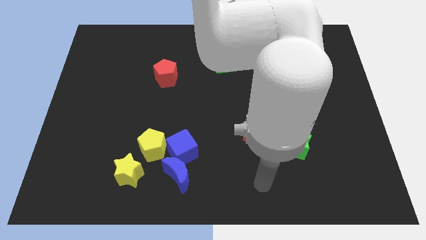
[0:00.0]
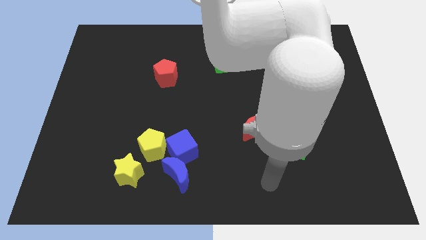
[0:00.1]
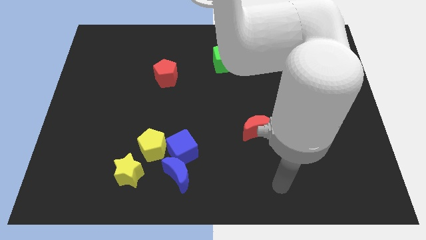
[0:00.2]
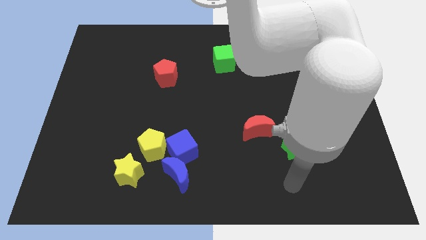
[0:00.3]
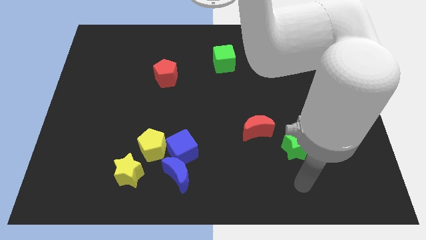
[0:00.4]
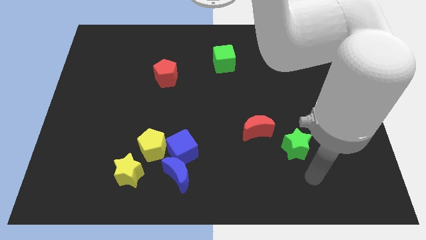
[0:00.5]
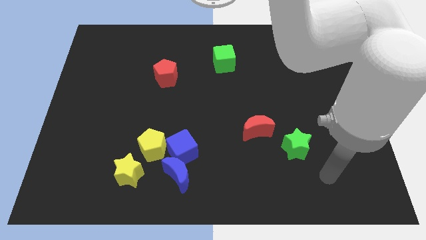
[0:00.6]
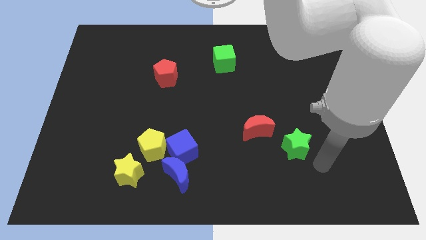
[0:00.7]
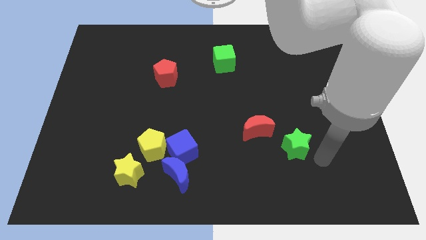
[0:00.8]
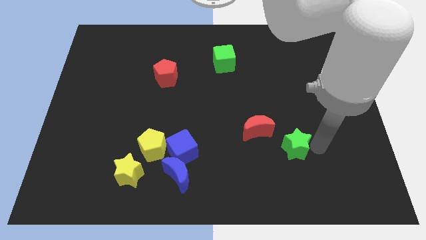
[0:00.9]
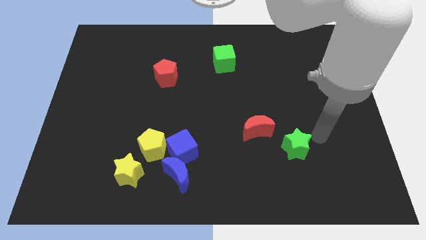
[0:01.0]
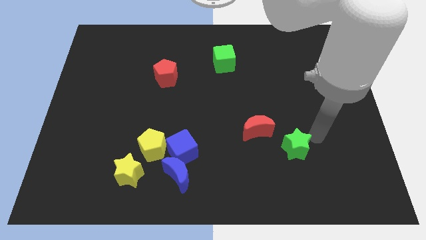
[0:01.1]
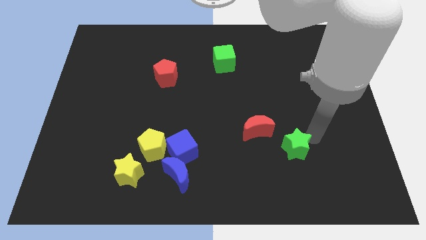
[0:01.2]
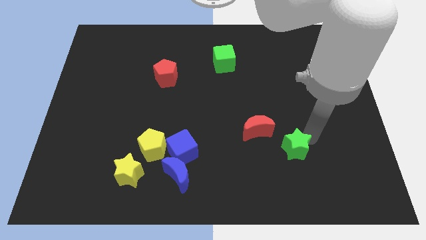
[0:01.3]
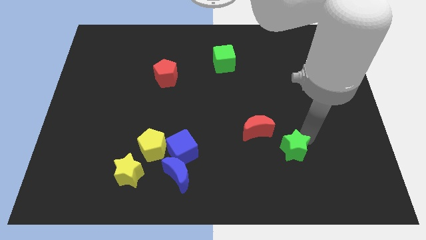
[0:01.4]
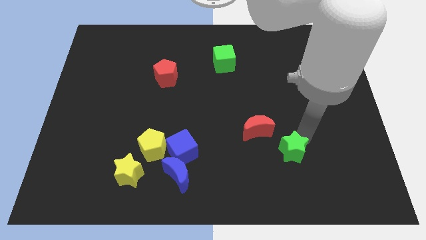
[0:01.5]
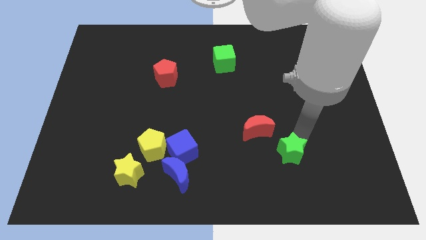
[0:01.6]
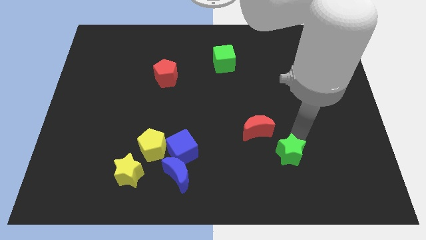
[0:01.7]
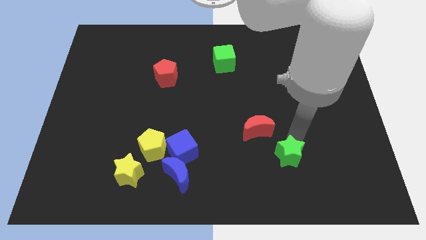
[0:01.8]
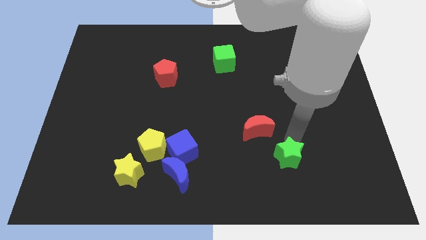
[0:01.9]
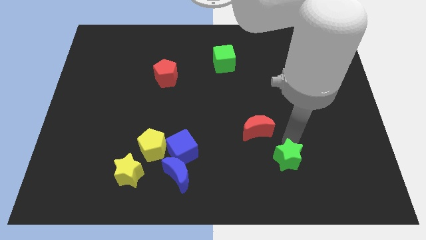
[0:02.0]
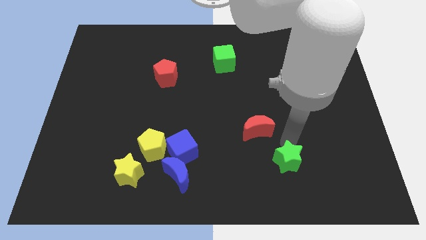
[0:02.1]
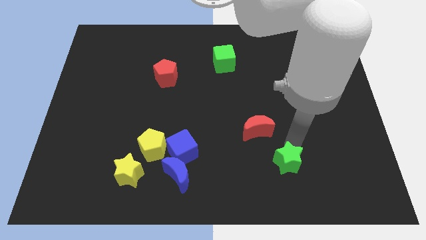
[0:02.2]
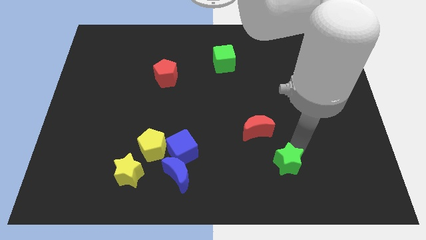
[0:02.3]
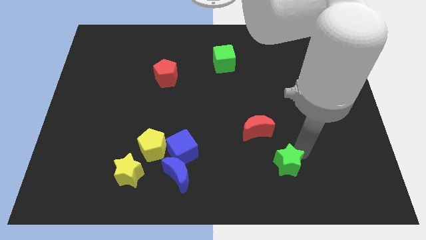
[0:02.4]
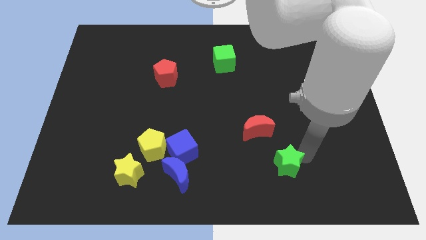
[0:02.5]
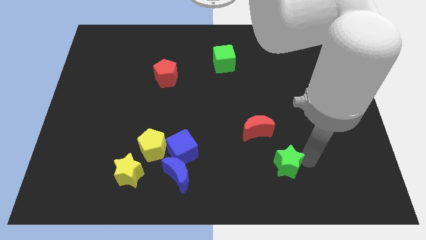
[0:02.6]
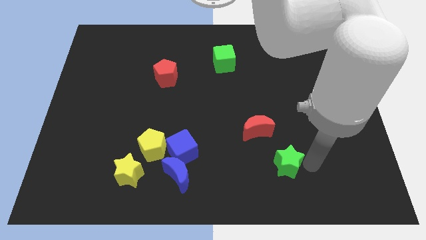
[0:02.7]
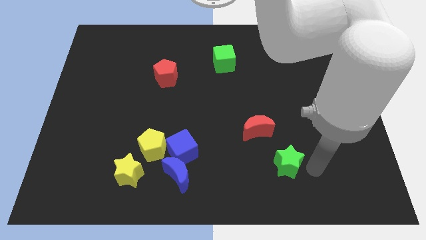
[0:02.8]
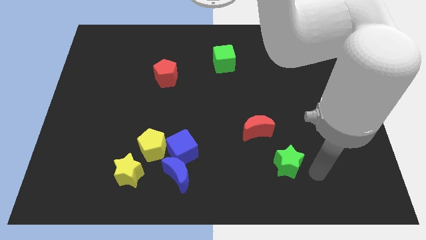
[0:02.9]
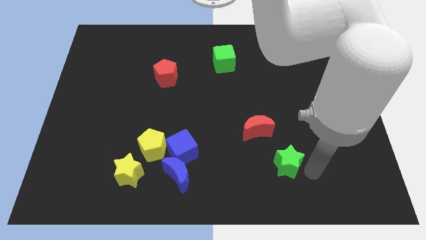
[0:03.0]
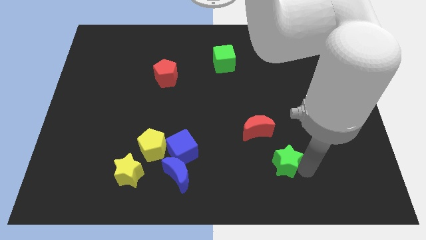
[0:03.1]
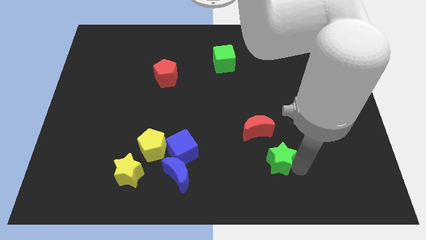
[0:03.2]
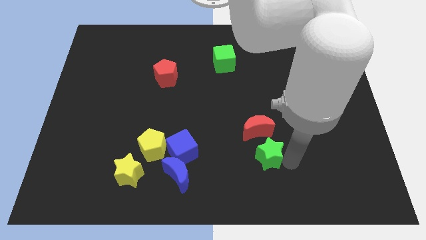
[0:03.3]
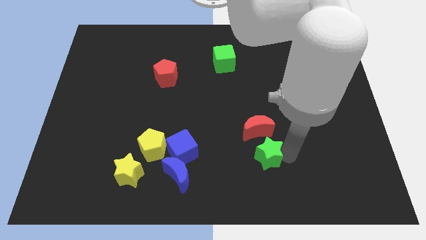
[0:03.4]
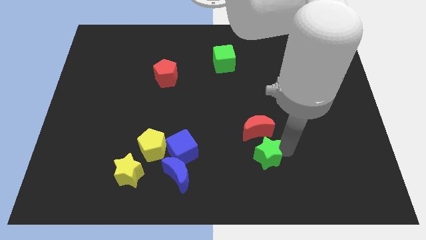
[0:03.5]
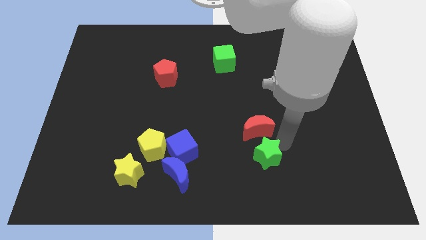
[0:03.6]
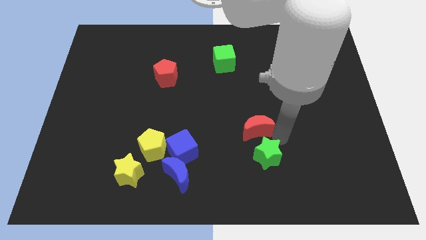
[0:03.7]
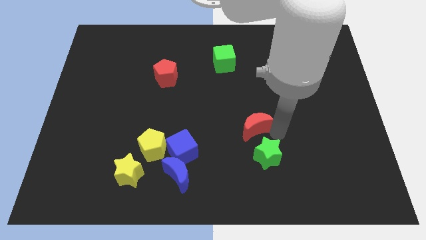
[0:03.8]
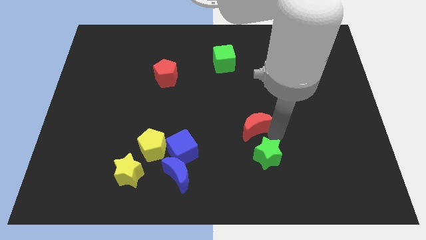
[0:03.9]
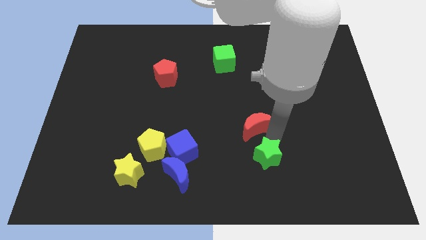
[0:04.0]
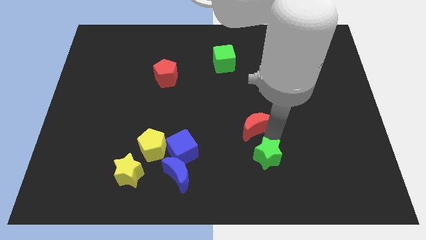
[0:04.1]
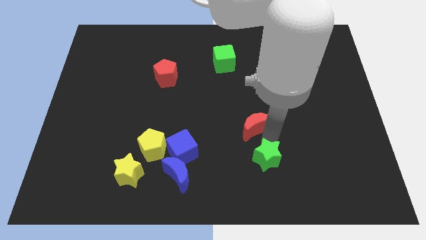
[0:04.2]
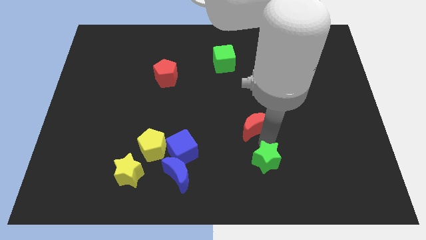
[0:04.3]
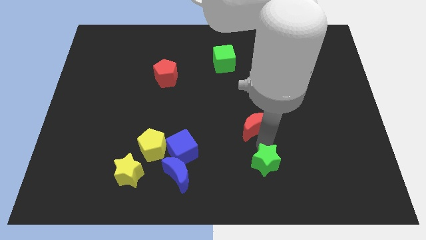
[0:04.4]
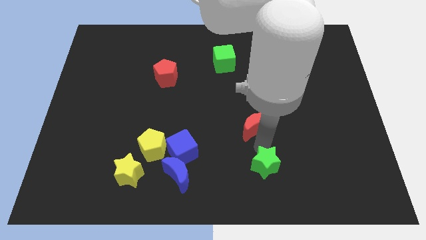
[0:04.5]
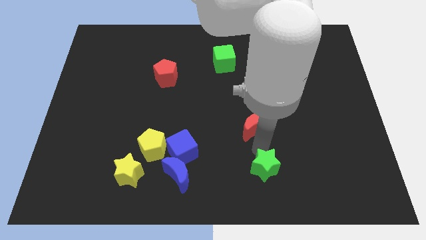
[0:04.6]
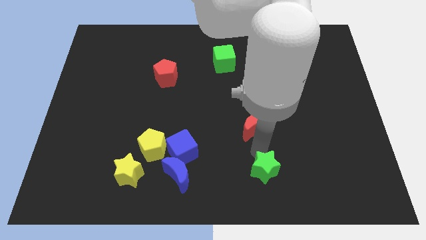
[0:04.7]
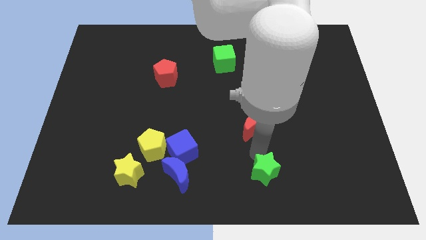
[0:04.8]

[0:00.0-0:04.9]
slide the green star to the bottom side
